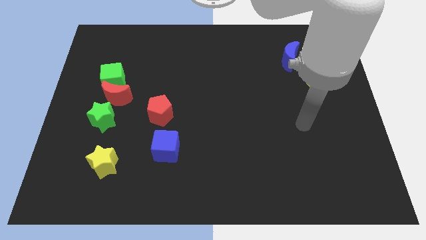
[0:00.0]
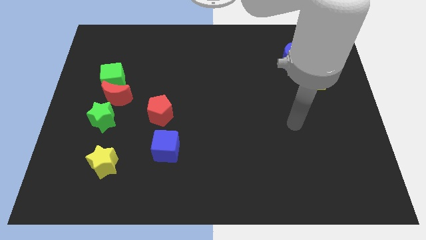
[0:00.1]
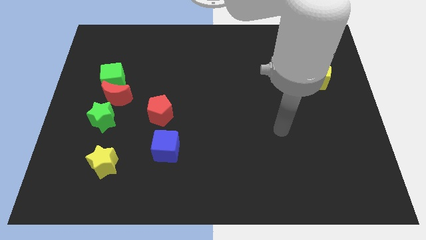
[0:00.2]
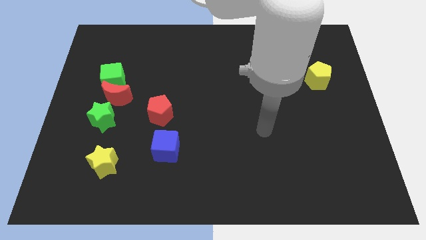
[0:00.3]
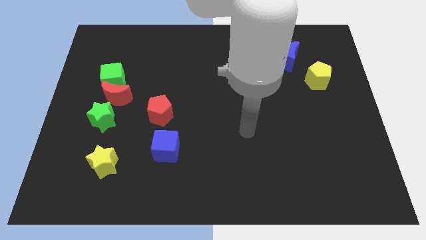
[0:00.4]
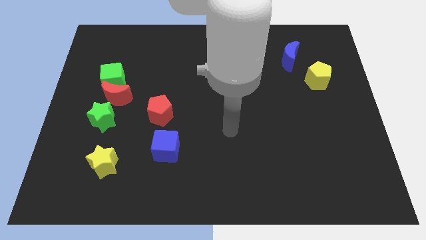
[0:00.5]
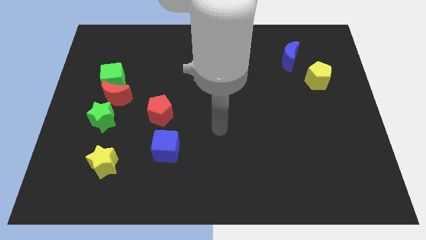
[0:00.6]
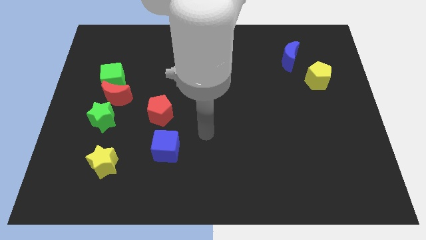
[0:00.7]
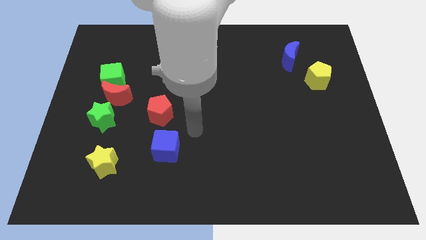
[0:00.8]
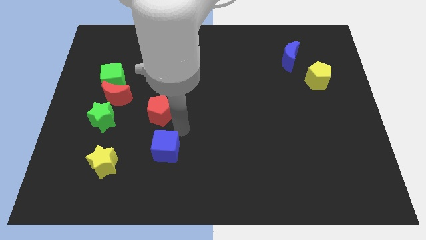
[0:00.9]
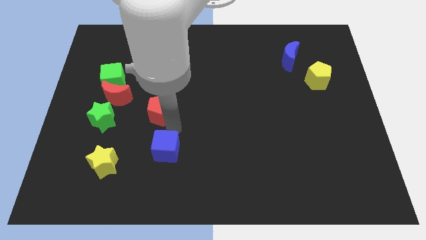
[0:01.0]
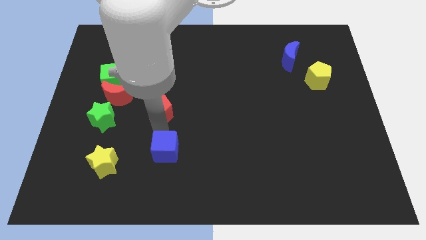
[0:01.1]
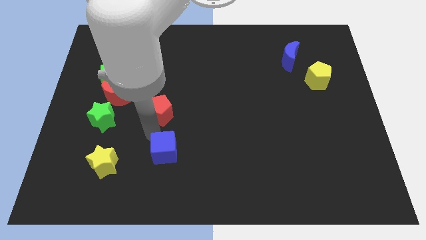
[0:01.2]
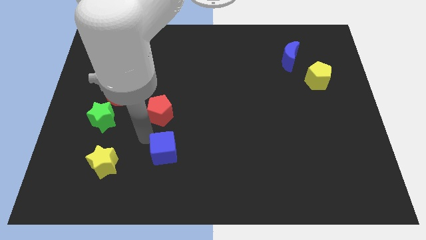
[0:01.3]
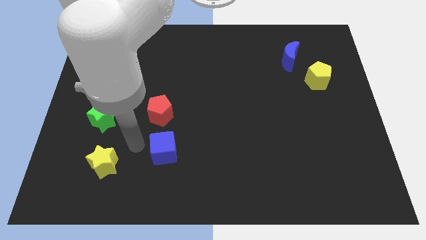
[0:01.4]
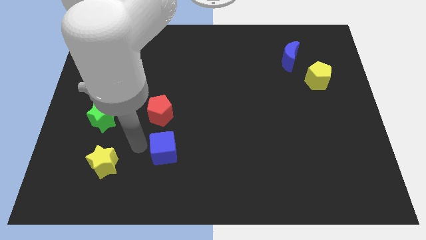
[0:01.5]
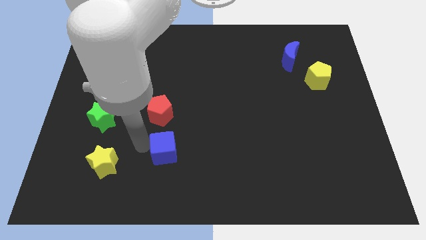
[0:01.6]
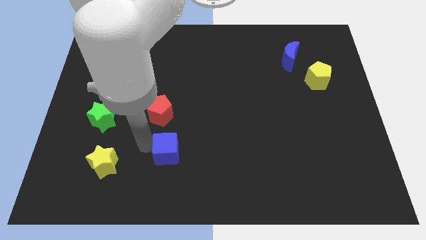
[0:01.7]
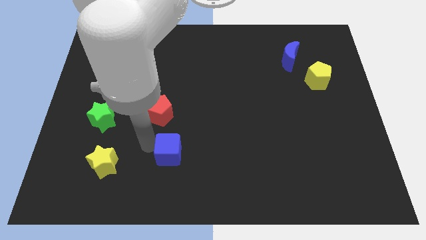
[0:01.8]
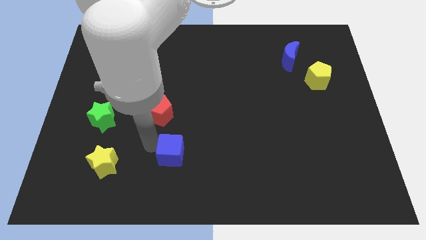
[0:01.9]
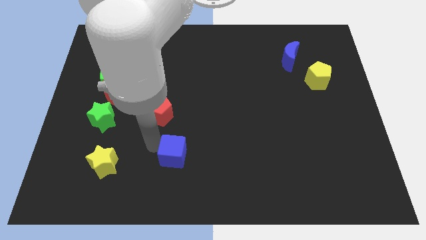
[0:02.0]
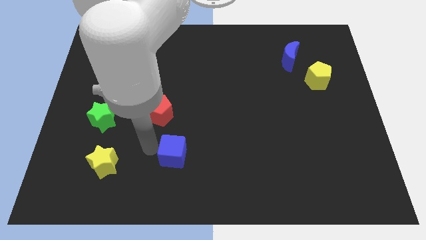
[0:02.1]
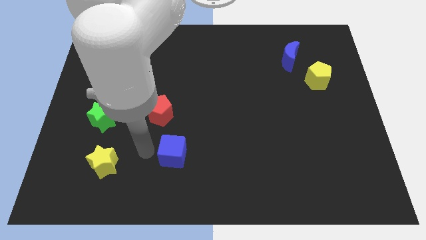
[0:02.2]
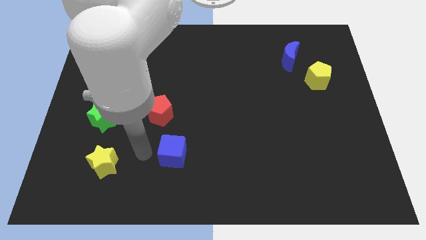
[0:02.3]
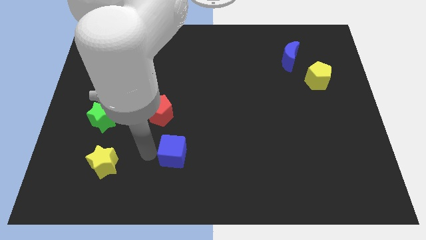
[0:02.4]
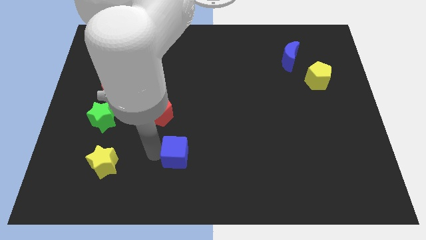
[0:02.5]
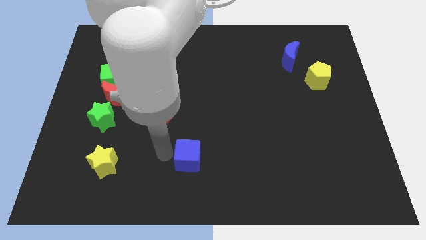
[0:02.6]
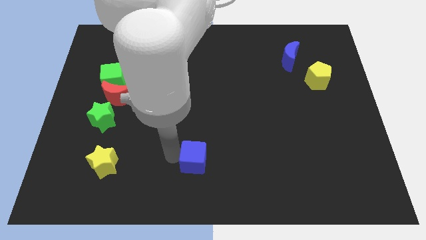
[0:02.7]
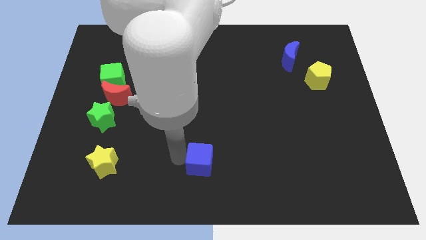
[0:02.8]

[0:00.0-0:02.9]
push the blue cube a little bit right

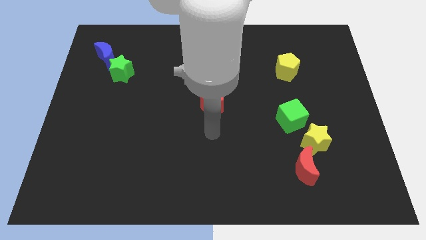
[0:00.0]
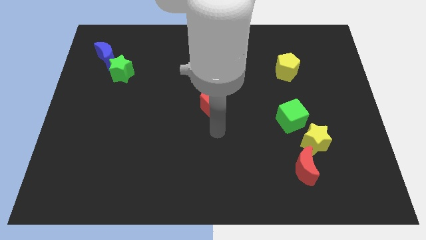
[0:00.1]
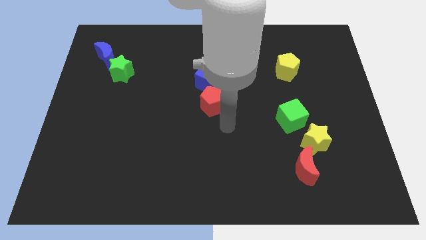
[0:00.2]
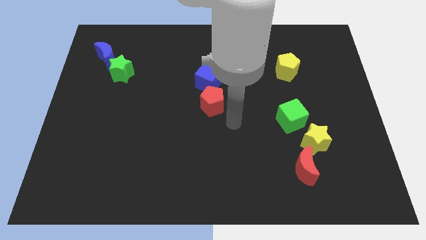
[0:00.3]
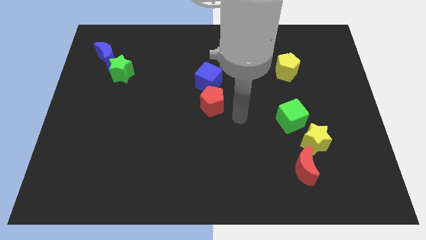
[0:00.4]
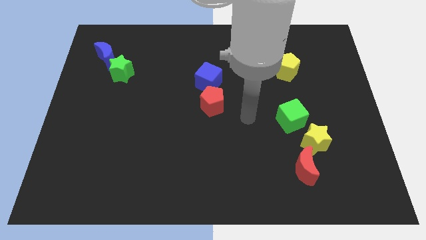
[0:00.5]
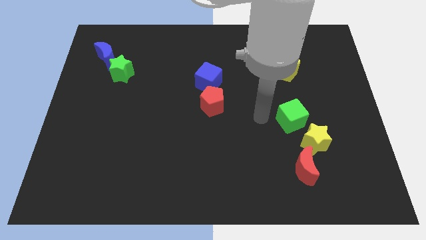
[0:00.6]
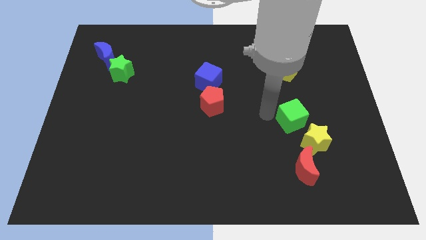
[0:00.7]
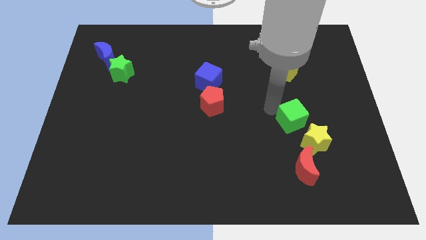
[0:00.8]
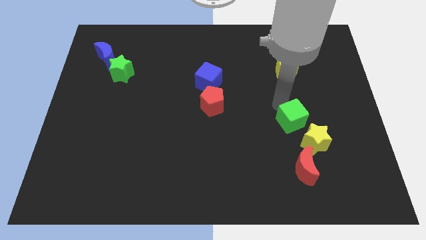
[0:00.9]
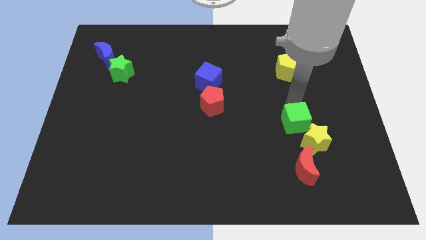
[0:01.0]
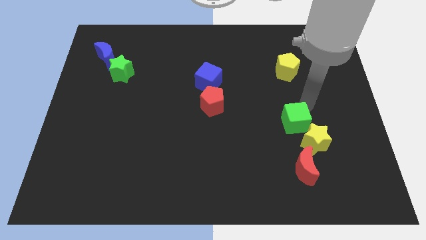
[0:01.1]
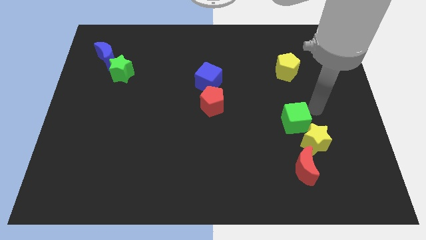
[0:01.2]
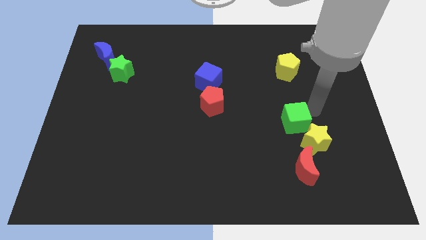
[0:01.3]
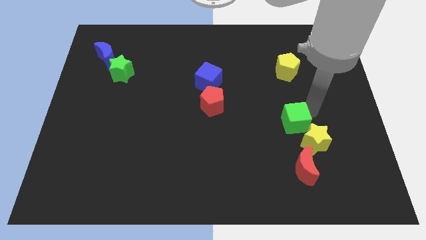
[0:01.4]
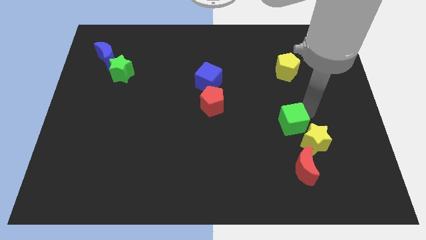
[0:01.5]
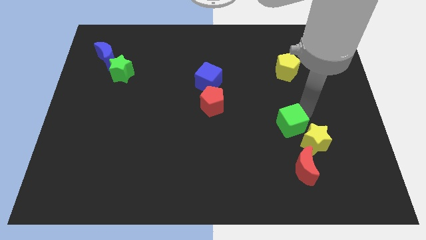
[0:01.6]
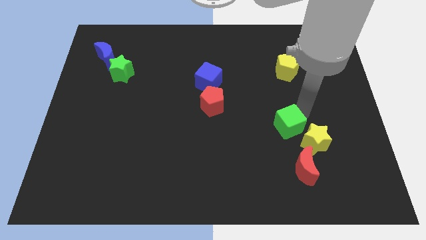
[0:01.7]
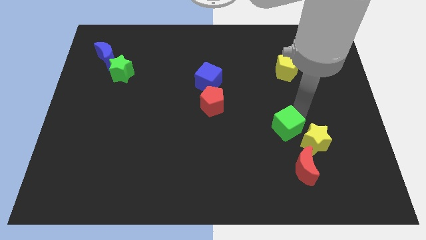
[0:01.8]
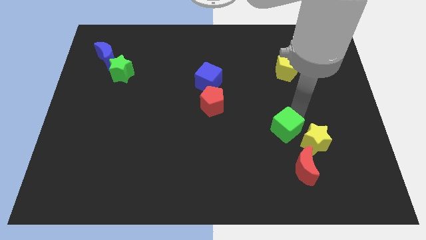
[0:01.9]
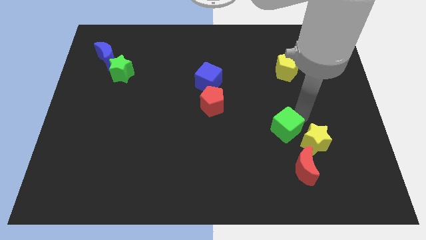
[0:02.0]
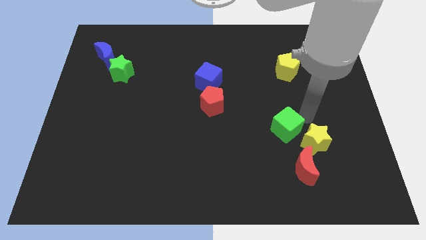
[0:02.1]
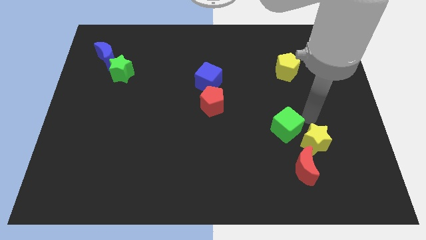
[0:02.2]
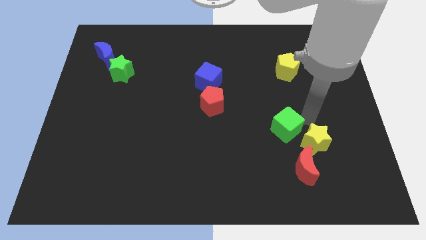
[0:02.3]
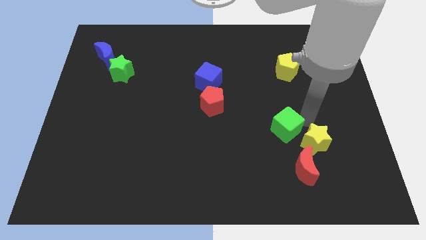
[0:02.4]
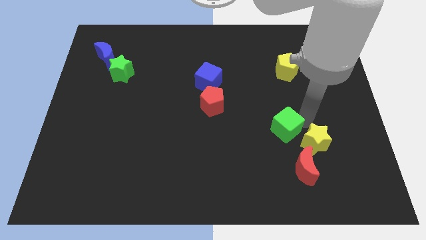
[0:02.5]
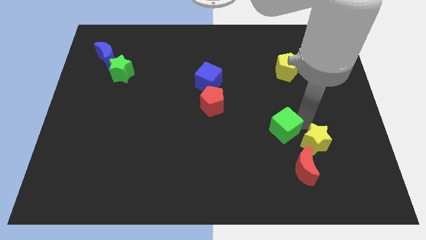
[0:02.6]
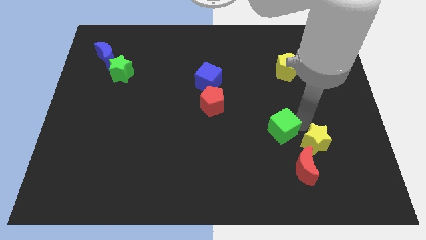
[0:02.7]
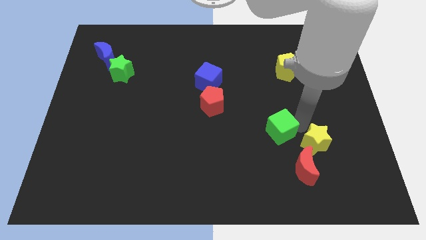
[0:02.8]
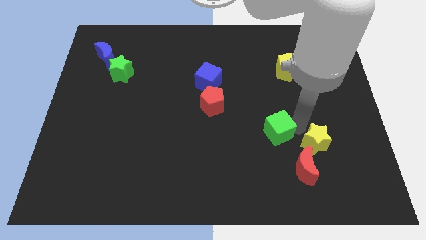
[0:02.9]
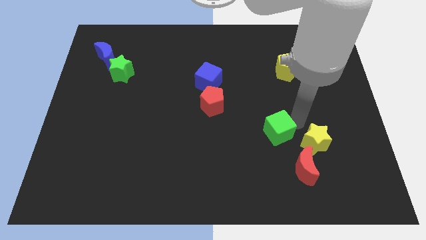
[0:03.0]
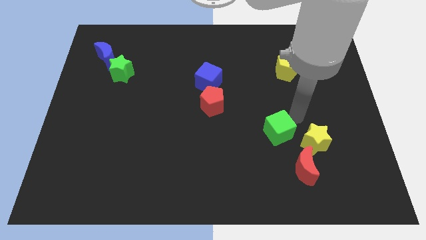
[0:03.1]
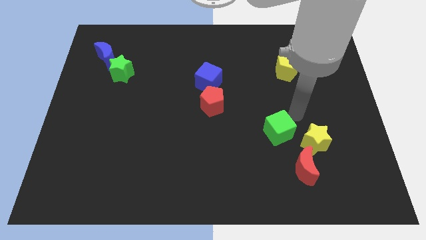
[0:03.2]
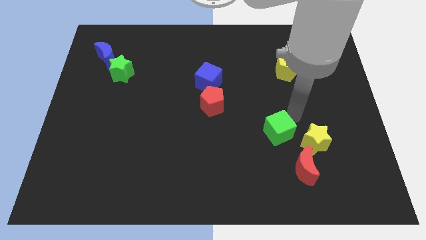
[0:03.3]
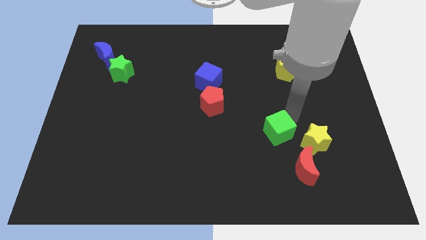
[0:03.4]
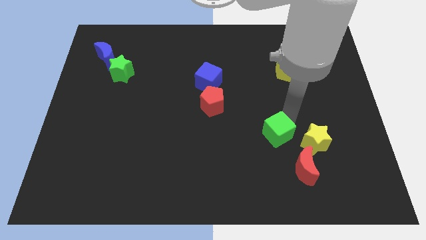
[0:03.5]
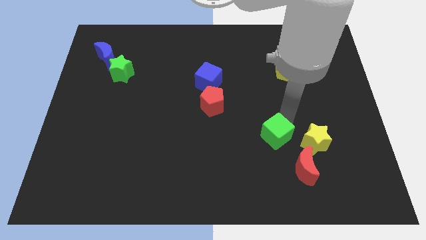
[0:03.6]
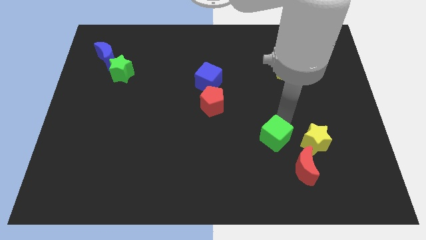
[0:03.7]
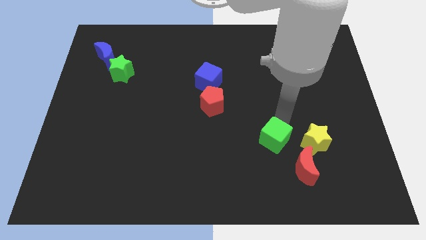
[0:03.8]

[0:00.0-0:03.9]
move the green cube diagonally down and to the left somewhat

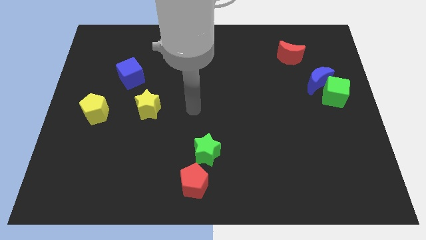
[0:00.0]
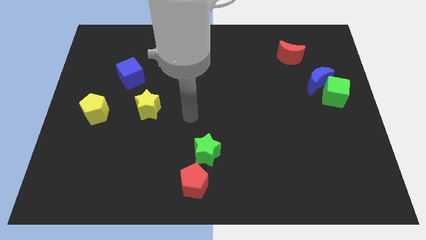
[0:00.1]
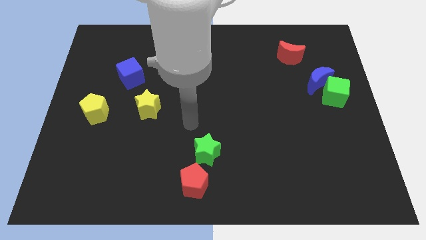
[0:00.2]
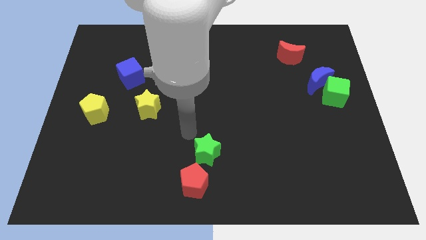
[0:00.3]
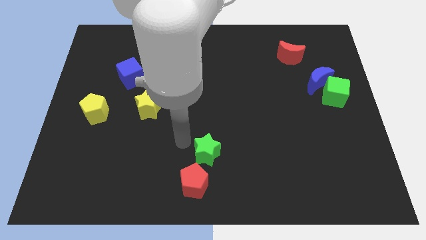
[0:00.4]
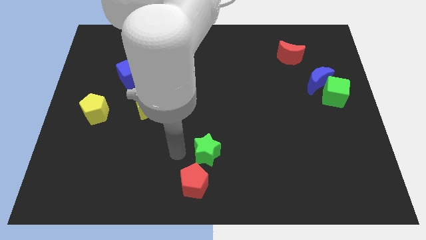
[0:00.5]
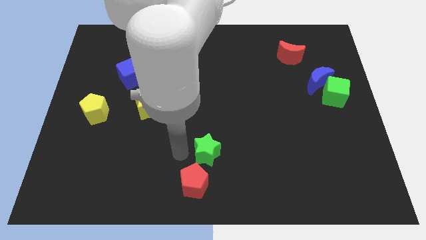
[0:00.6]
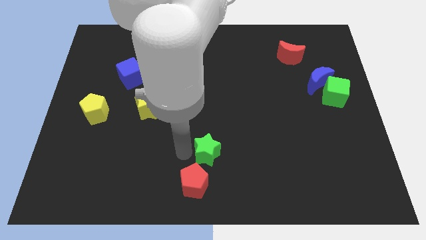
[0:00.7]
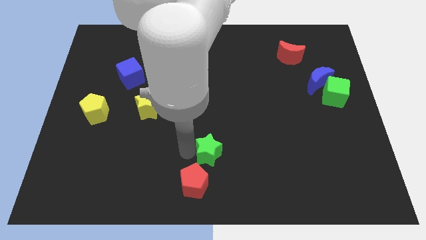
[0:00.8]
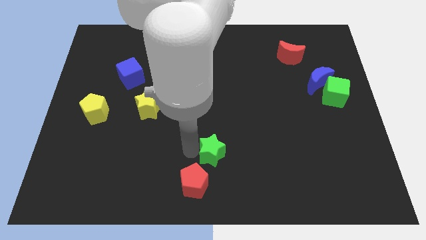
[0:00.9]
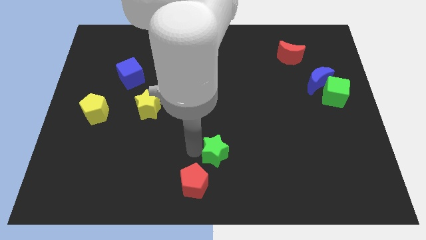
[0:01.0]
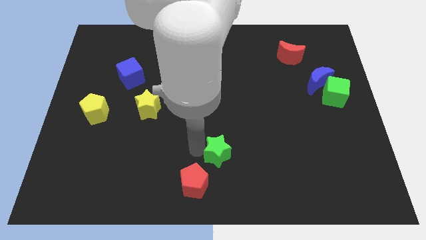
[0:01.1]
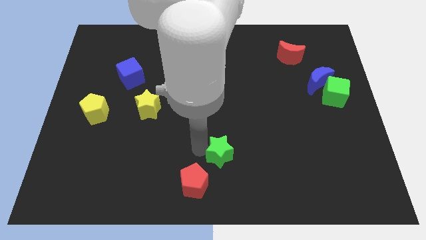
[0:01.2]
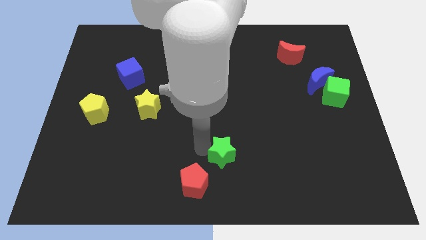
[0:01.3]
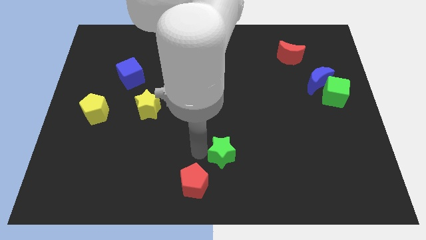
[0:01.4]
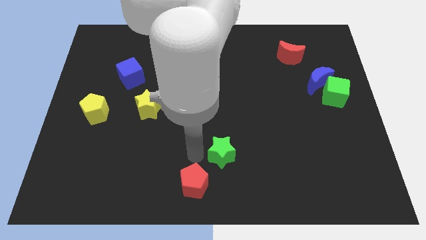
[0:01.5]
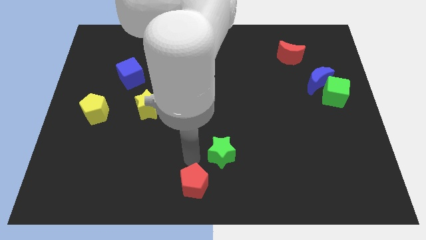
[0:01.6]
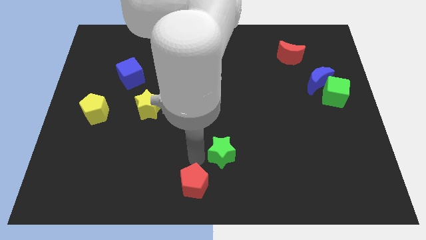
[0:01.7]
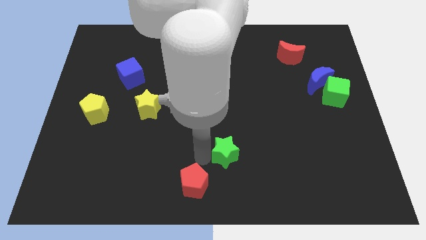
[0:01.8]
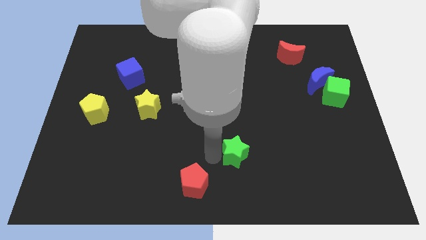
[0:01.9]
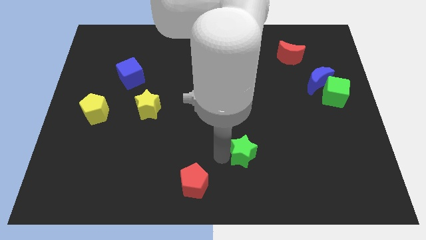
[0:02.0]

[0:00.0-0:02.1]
slightly push the green star to the right
